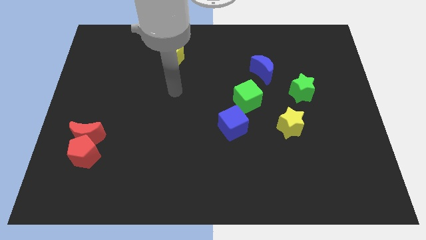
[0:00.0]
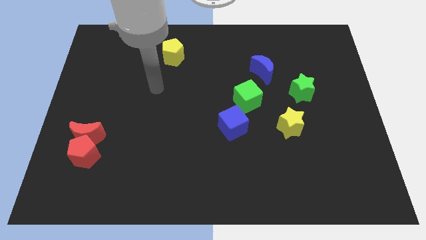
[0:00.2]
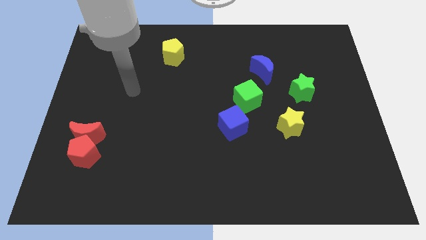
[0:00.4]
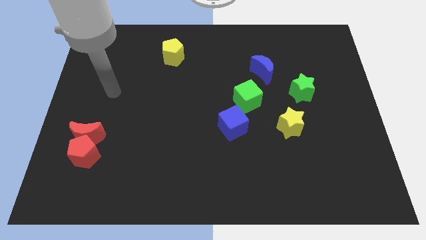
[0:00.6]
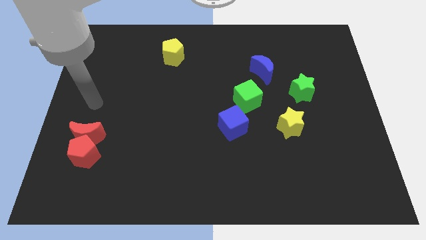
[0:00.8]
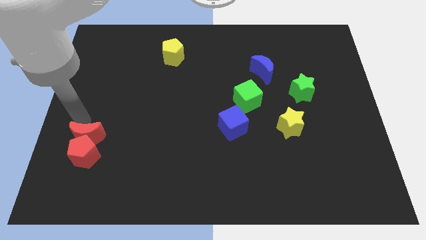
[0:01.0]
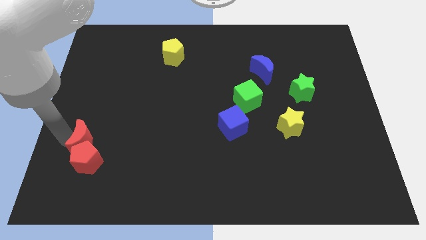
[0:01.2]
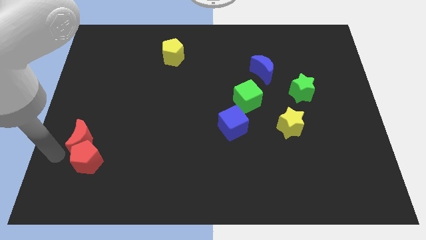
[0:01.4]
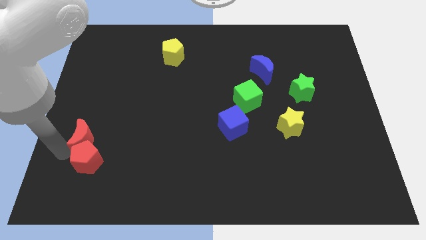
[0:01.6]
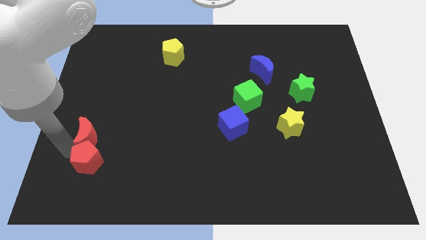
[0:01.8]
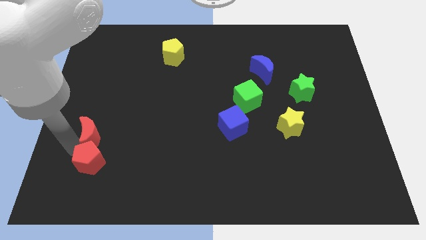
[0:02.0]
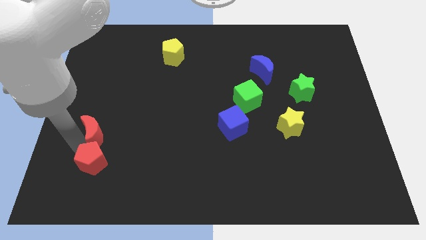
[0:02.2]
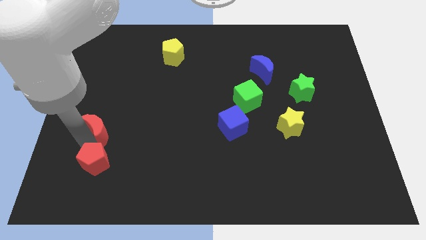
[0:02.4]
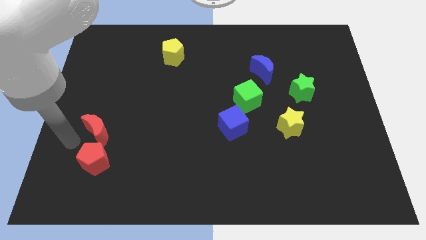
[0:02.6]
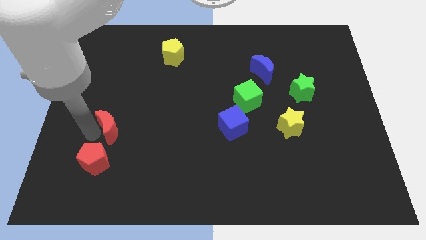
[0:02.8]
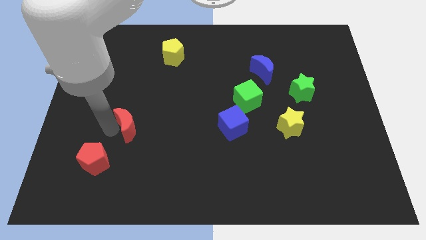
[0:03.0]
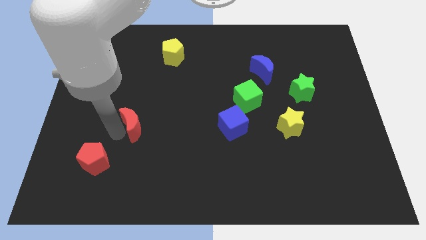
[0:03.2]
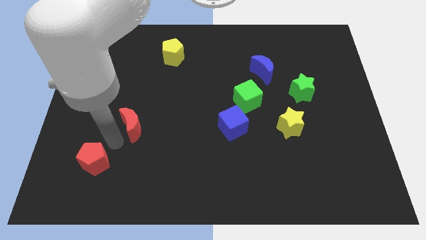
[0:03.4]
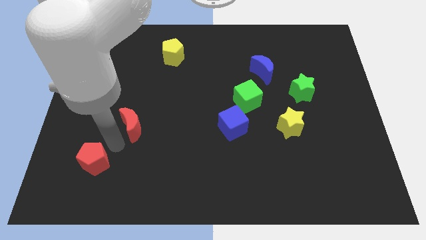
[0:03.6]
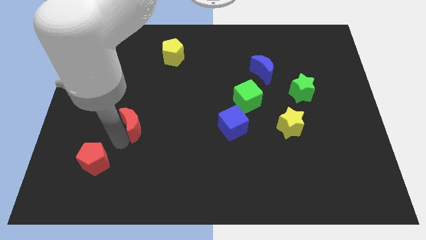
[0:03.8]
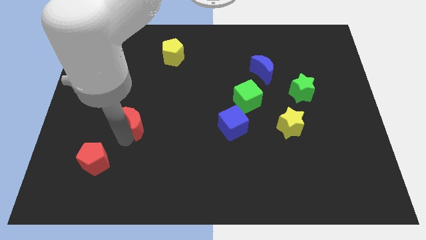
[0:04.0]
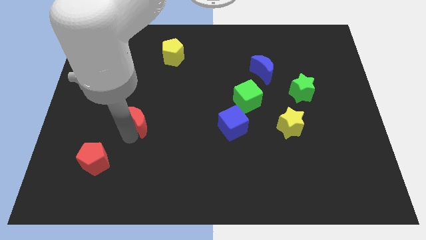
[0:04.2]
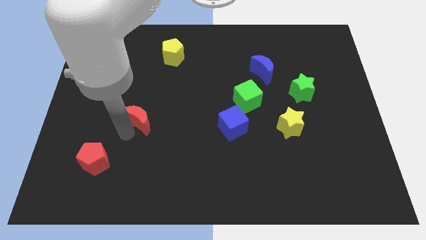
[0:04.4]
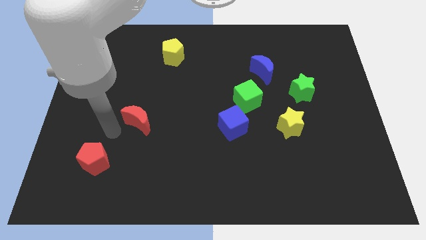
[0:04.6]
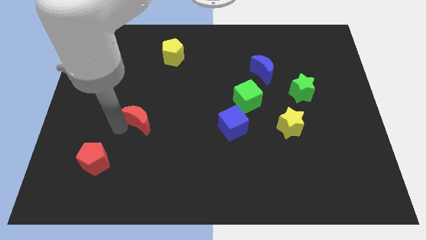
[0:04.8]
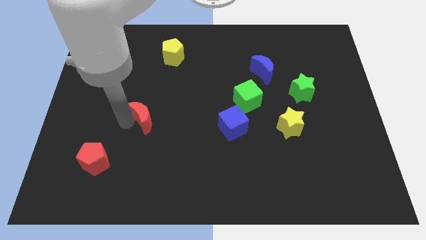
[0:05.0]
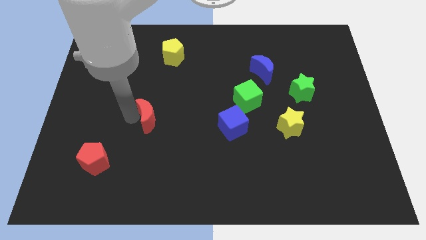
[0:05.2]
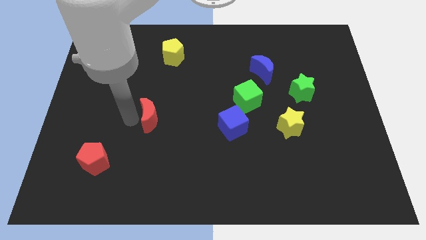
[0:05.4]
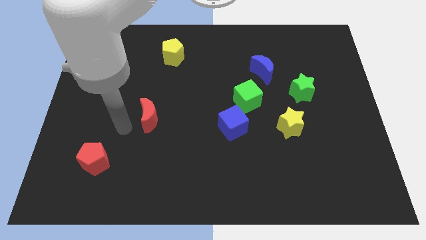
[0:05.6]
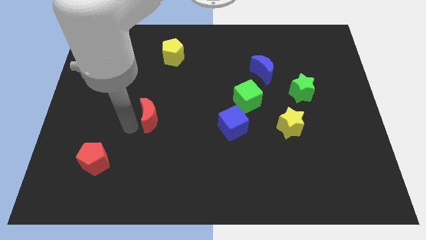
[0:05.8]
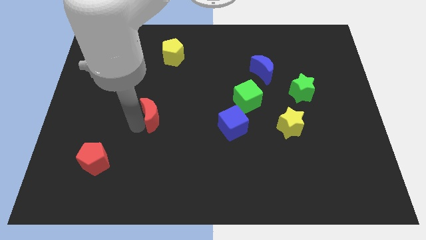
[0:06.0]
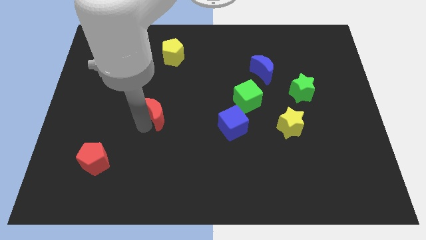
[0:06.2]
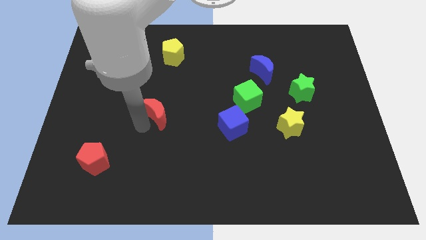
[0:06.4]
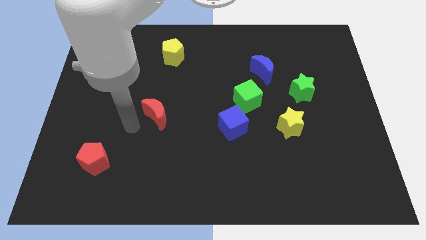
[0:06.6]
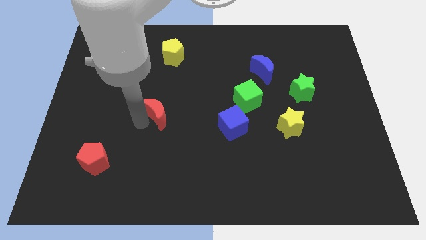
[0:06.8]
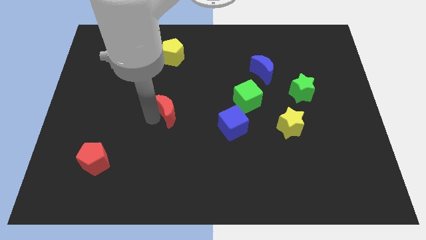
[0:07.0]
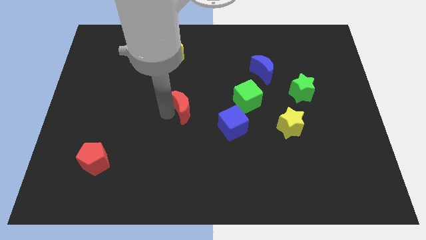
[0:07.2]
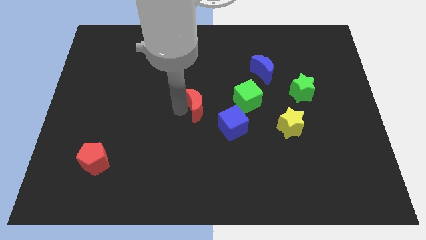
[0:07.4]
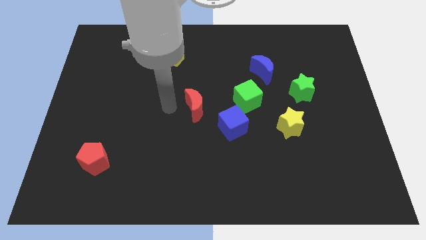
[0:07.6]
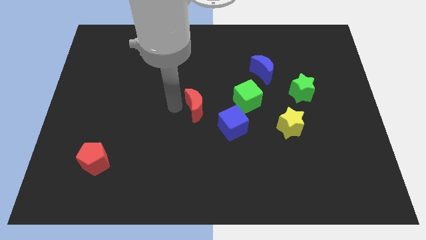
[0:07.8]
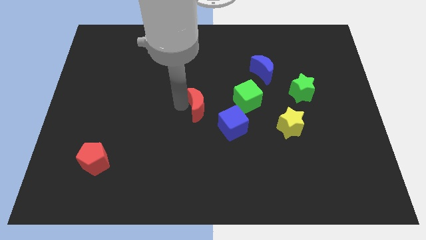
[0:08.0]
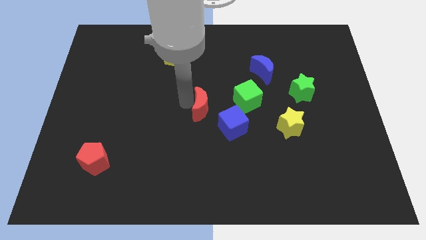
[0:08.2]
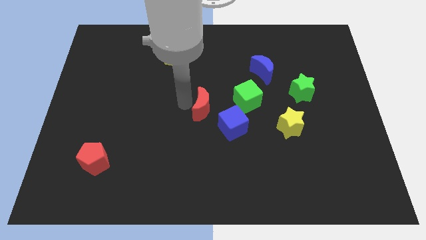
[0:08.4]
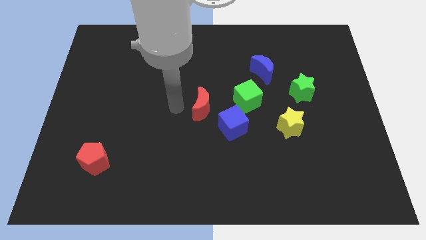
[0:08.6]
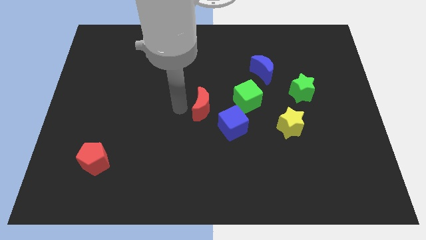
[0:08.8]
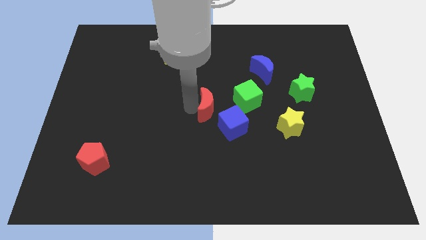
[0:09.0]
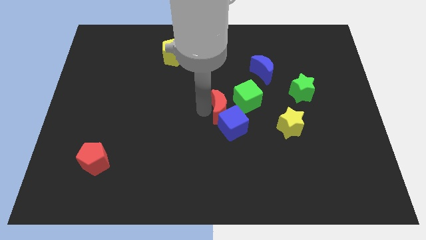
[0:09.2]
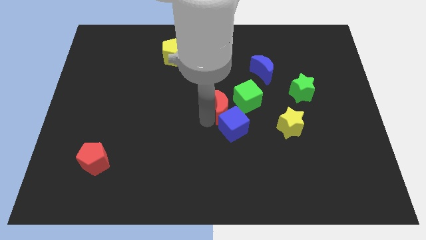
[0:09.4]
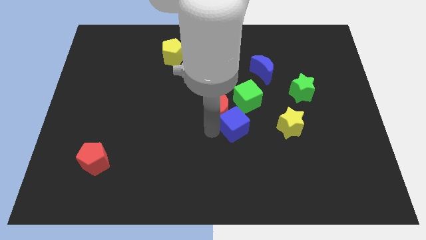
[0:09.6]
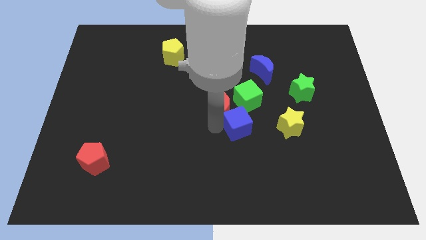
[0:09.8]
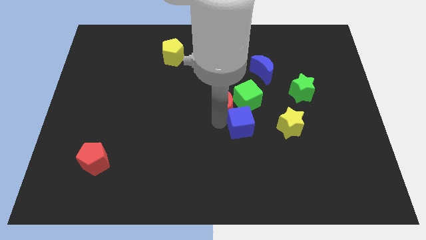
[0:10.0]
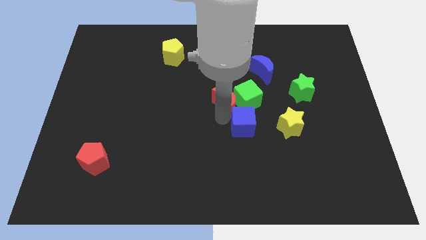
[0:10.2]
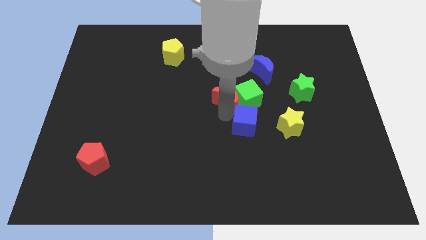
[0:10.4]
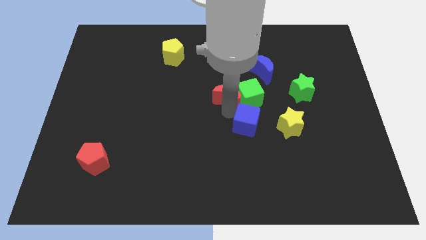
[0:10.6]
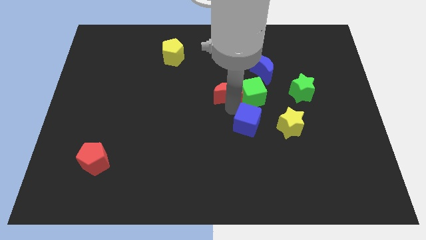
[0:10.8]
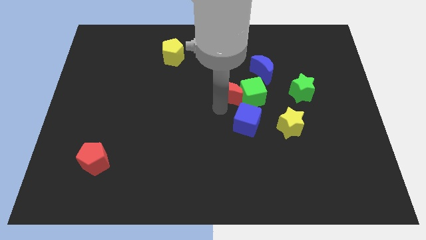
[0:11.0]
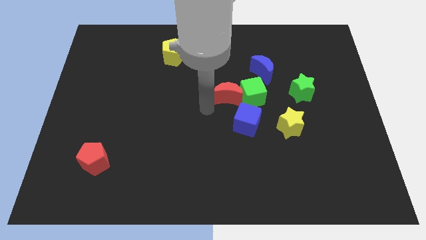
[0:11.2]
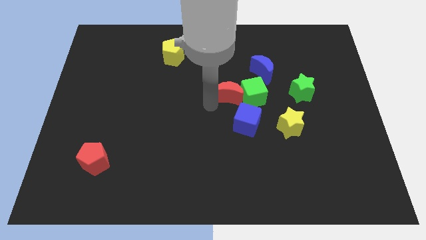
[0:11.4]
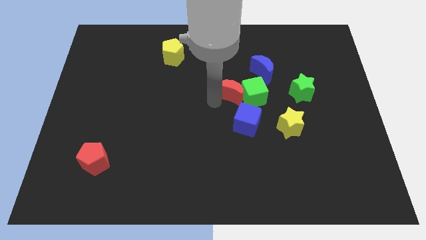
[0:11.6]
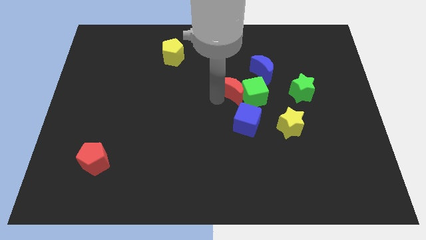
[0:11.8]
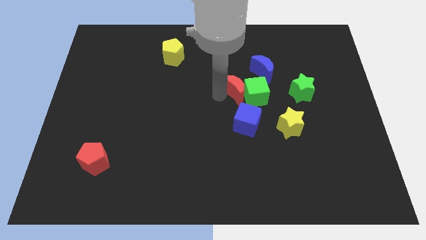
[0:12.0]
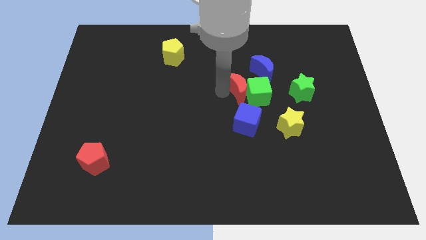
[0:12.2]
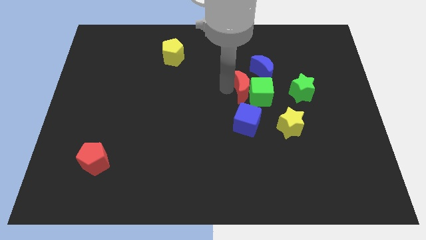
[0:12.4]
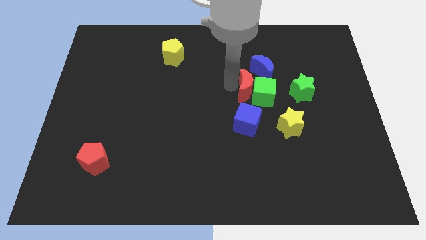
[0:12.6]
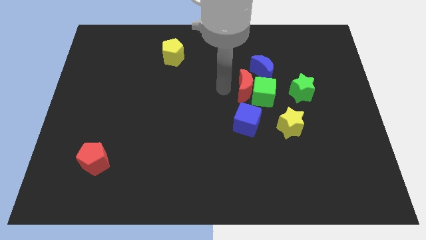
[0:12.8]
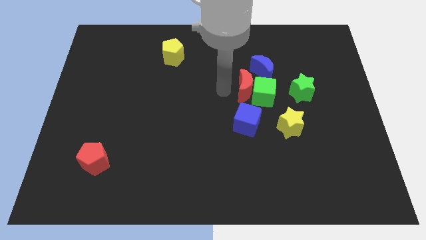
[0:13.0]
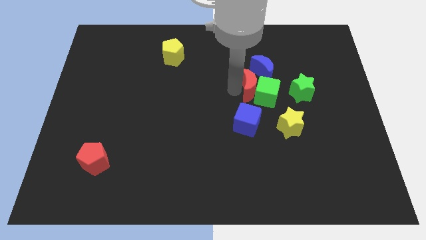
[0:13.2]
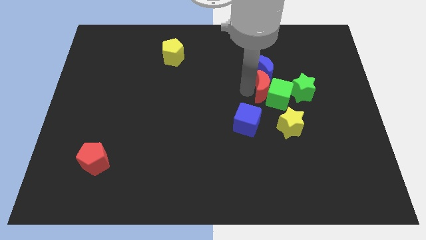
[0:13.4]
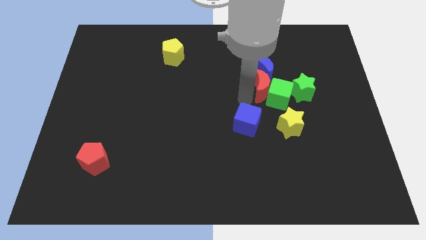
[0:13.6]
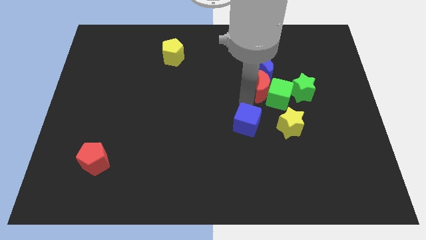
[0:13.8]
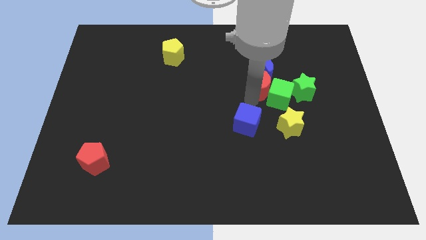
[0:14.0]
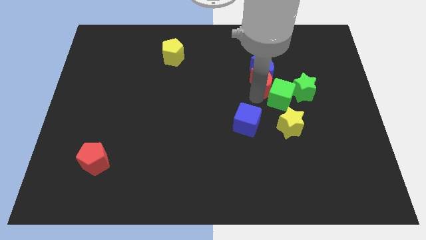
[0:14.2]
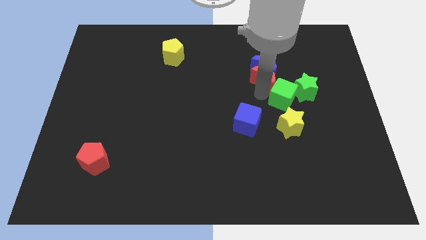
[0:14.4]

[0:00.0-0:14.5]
put the red moon to the top left of the green star

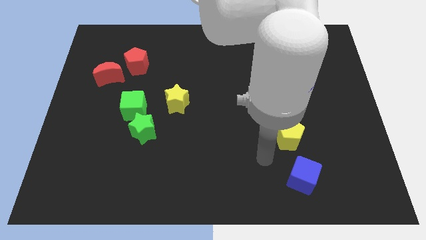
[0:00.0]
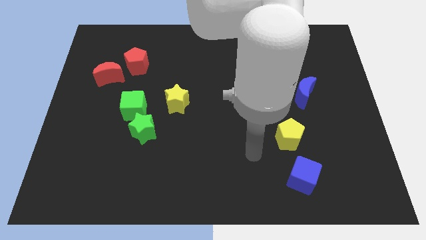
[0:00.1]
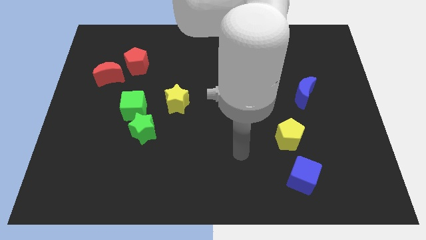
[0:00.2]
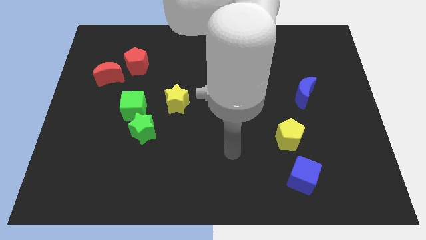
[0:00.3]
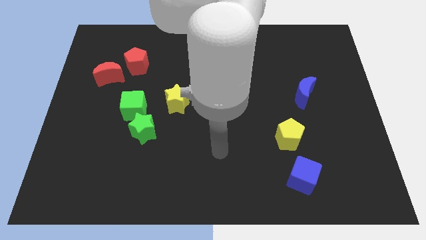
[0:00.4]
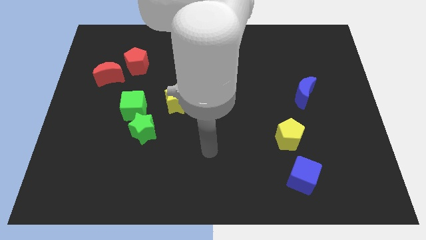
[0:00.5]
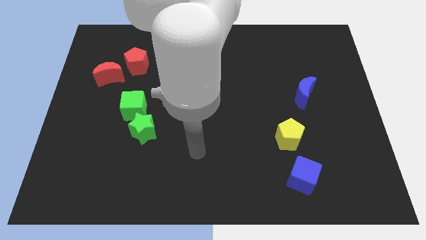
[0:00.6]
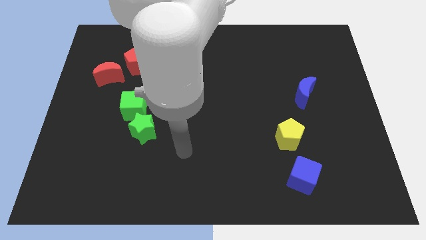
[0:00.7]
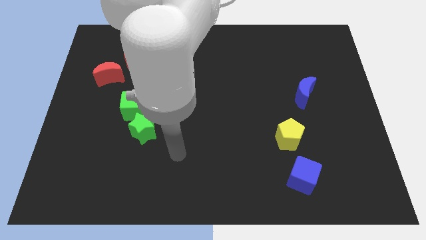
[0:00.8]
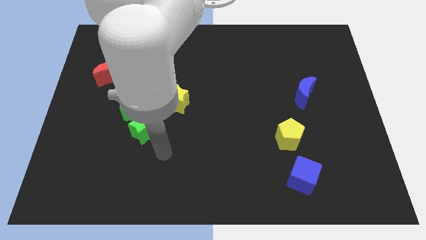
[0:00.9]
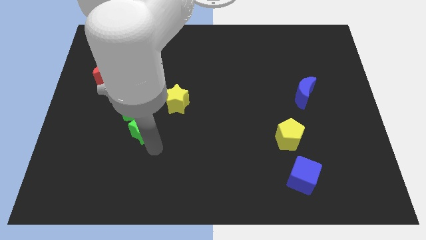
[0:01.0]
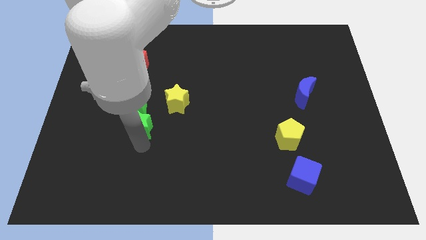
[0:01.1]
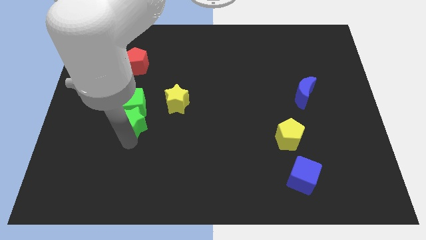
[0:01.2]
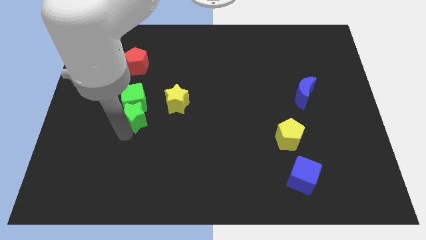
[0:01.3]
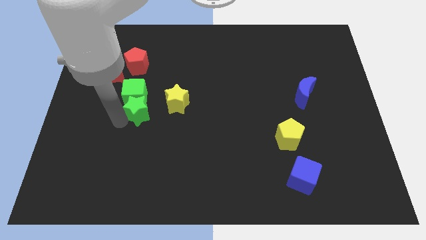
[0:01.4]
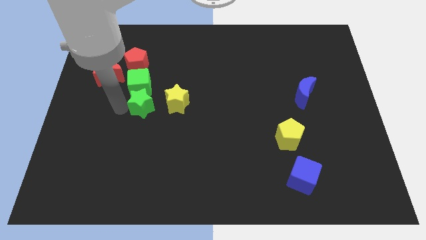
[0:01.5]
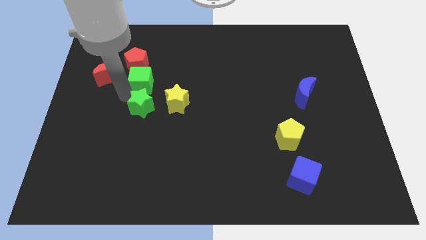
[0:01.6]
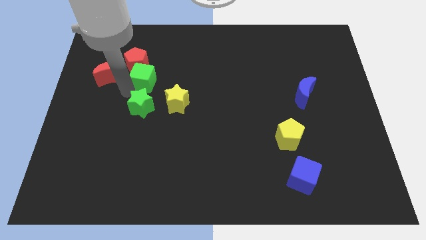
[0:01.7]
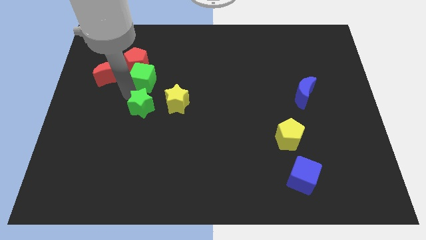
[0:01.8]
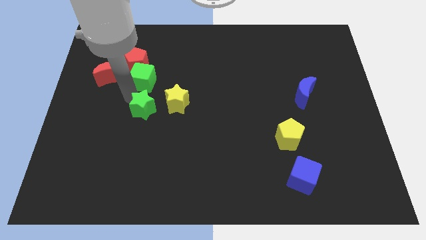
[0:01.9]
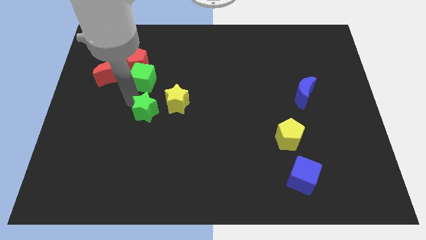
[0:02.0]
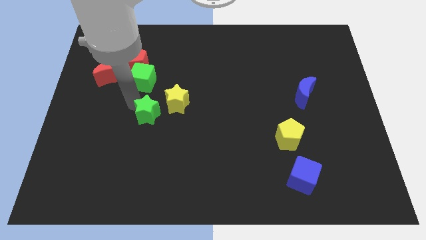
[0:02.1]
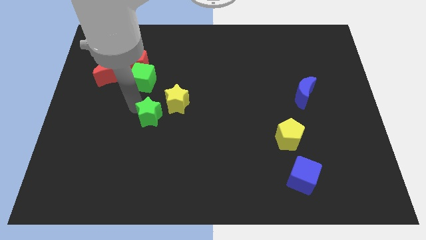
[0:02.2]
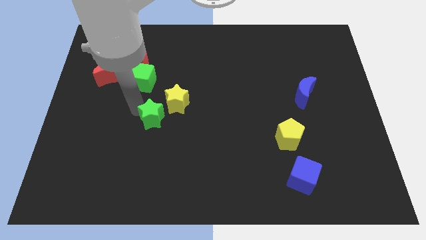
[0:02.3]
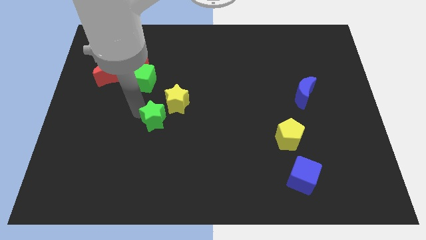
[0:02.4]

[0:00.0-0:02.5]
put the green star to the bottom of the yellow star
